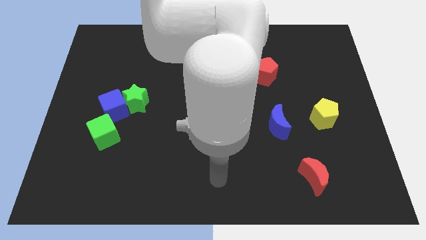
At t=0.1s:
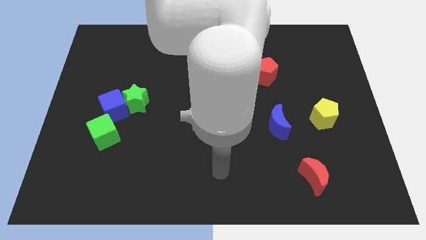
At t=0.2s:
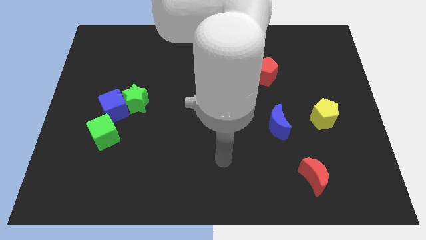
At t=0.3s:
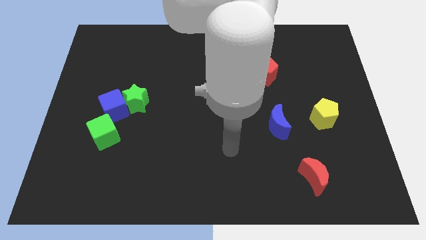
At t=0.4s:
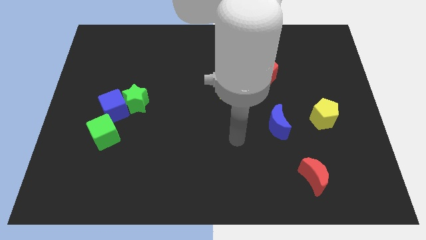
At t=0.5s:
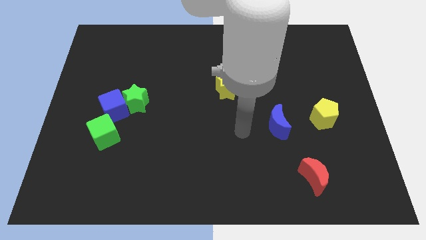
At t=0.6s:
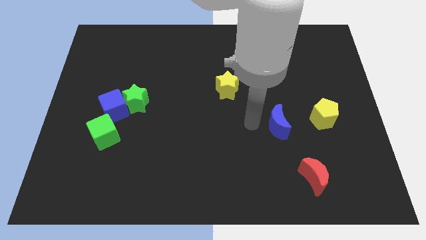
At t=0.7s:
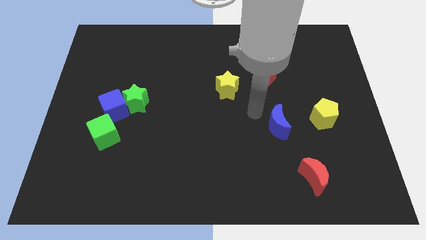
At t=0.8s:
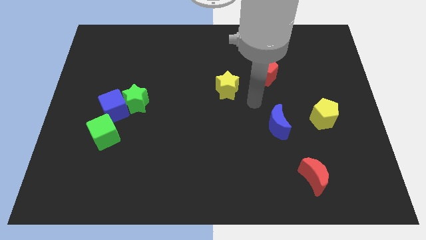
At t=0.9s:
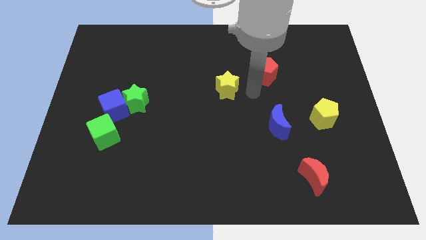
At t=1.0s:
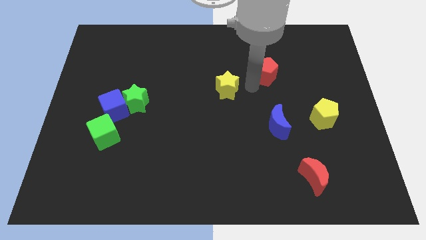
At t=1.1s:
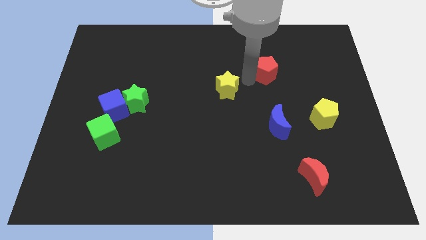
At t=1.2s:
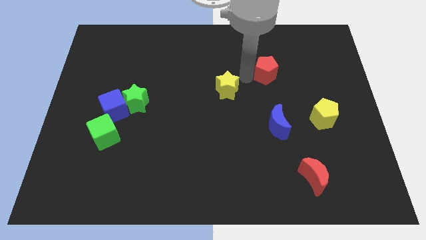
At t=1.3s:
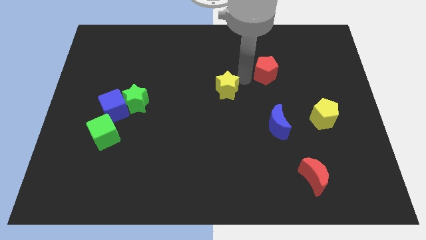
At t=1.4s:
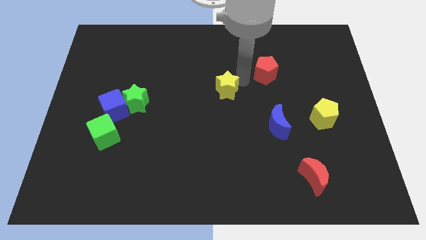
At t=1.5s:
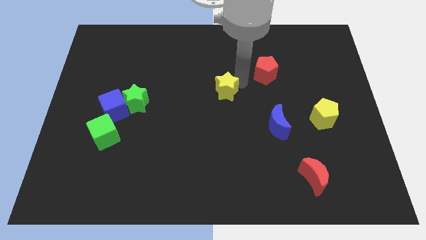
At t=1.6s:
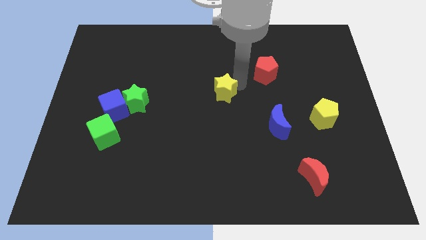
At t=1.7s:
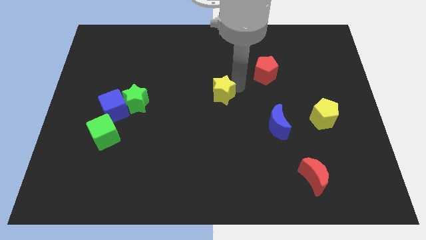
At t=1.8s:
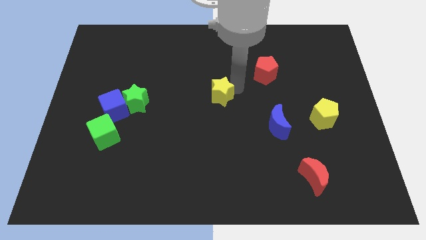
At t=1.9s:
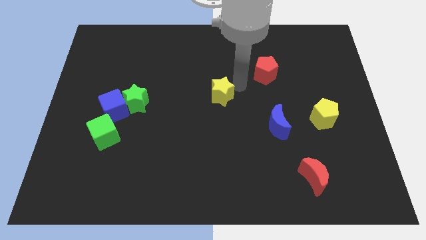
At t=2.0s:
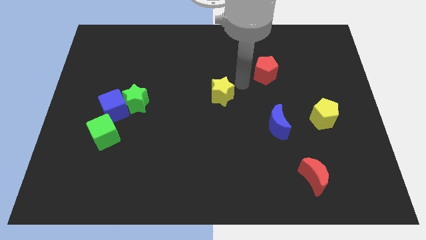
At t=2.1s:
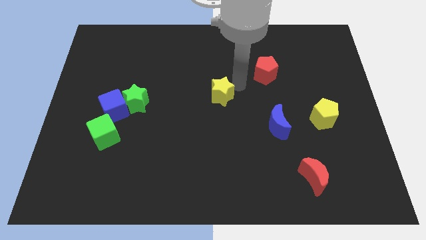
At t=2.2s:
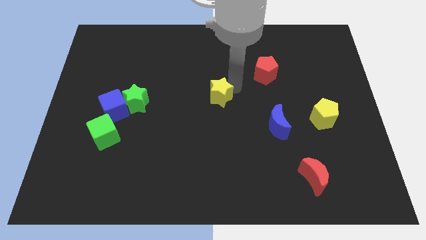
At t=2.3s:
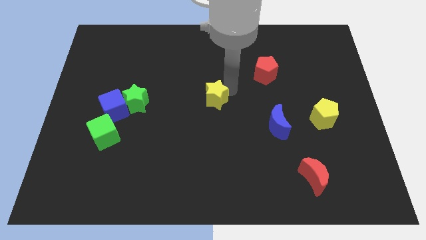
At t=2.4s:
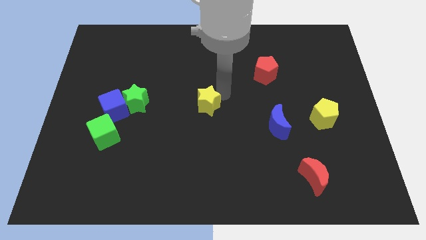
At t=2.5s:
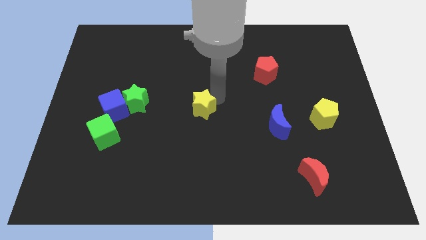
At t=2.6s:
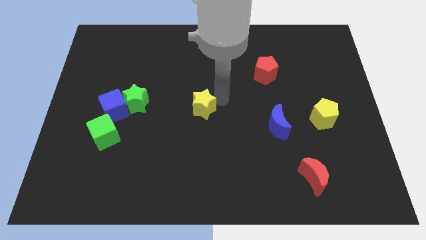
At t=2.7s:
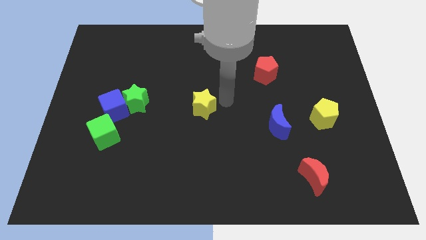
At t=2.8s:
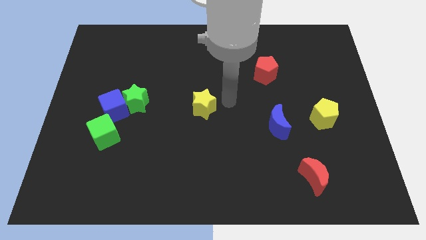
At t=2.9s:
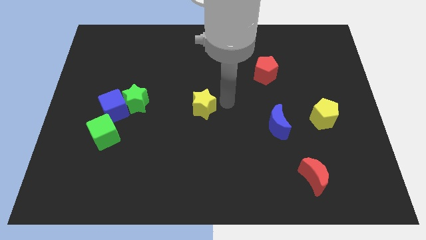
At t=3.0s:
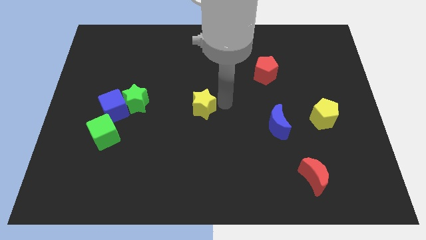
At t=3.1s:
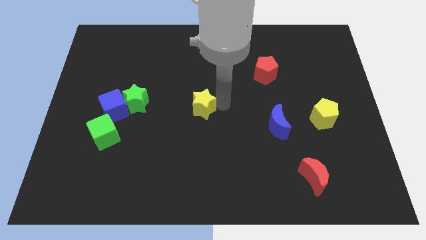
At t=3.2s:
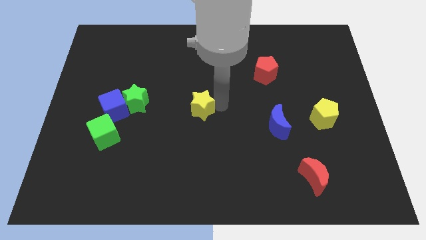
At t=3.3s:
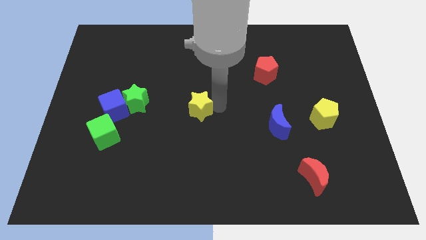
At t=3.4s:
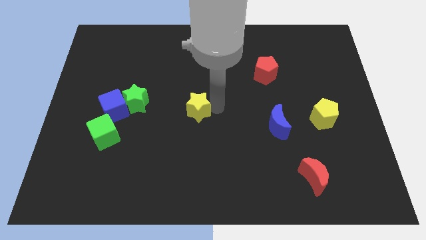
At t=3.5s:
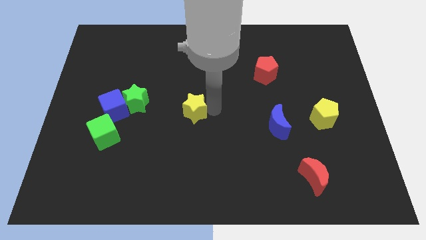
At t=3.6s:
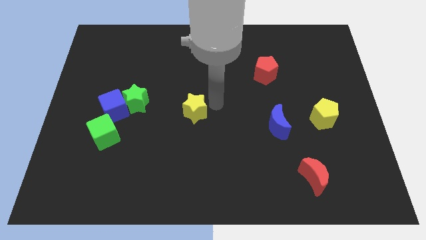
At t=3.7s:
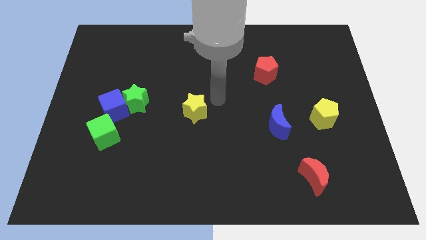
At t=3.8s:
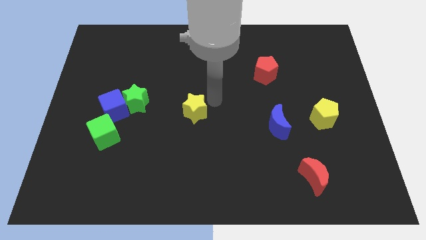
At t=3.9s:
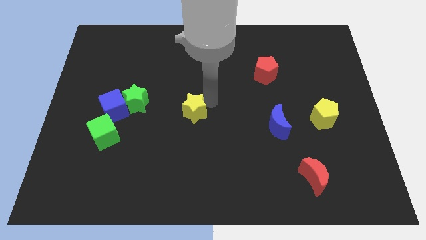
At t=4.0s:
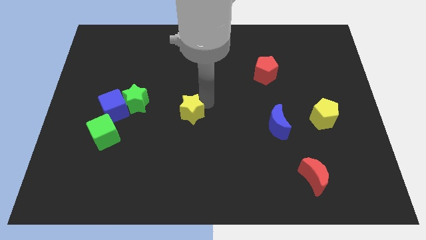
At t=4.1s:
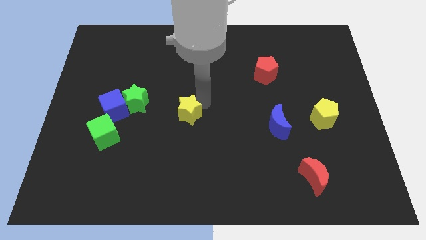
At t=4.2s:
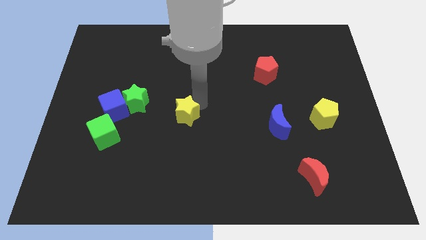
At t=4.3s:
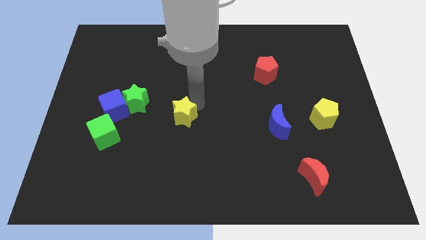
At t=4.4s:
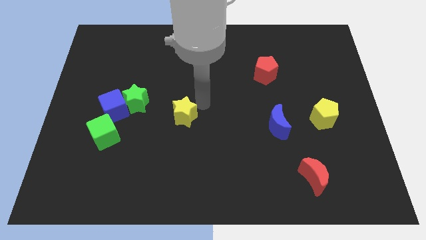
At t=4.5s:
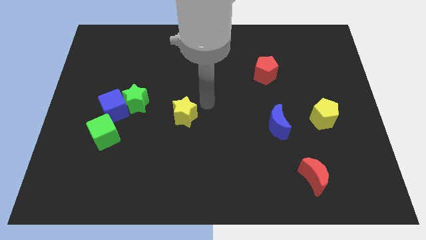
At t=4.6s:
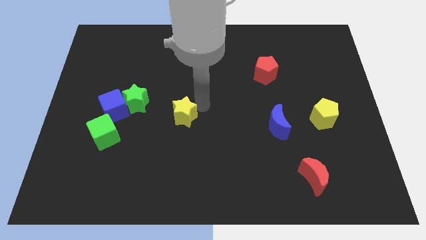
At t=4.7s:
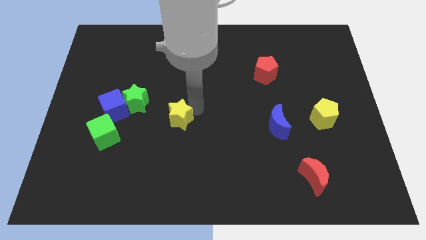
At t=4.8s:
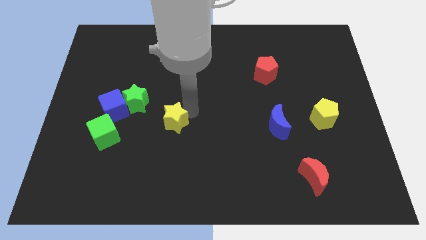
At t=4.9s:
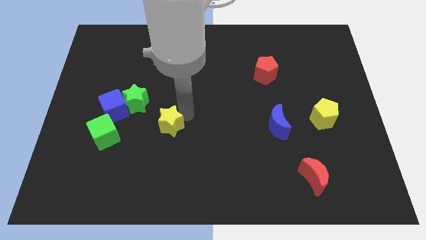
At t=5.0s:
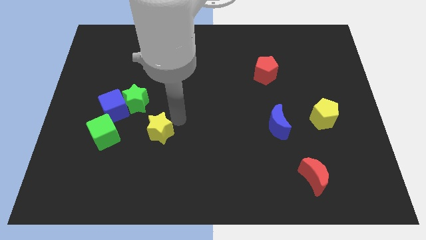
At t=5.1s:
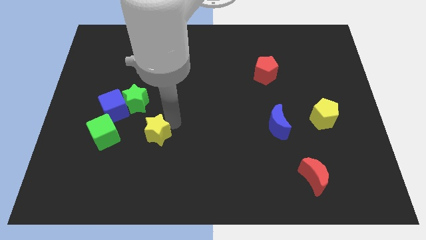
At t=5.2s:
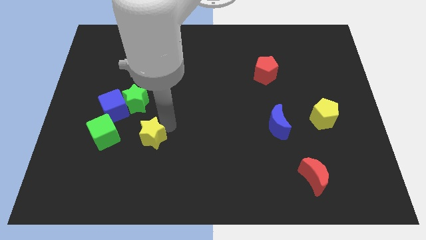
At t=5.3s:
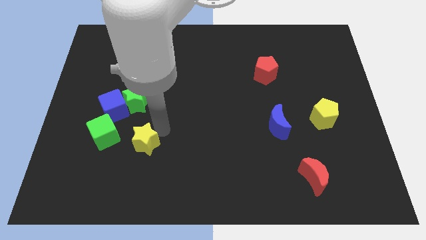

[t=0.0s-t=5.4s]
push the yellow star diagonally down and to the right of the green cube

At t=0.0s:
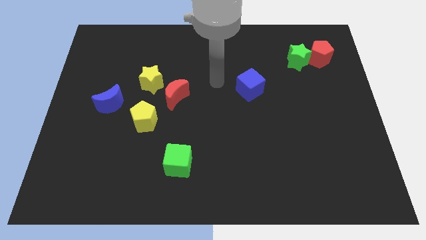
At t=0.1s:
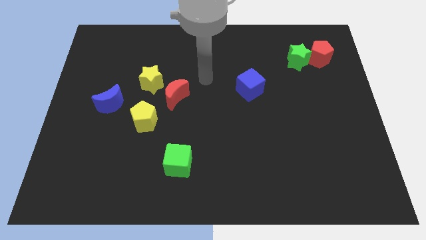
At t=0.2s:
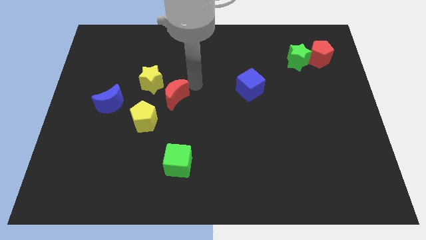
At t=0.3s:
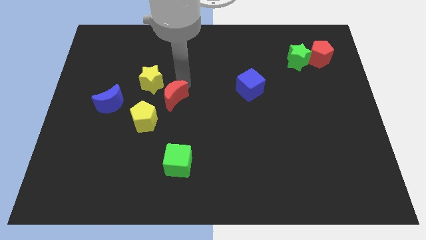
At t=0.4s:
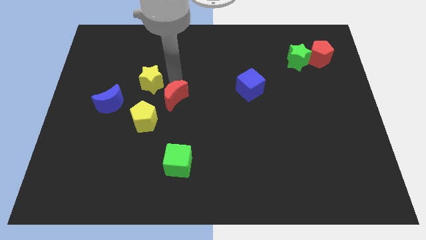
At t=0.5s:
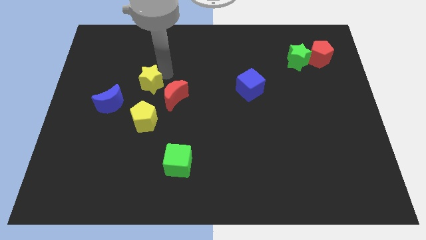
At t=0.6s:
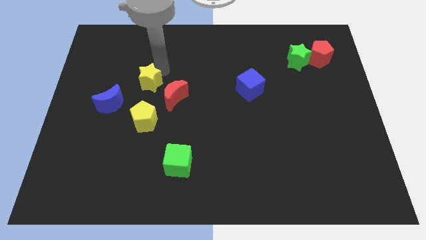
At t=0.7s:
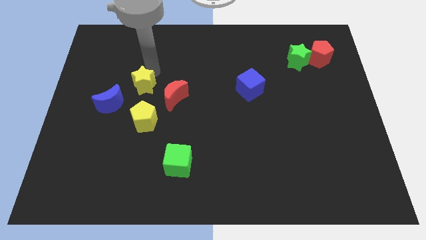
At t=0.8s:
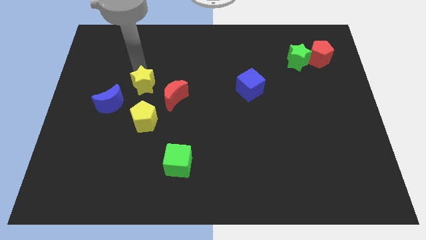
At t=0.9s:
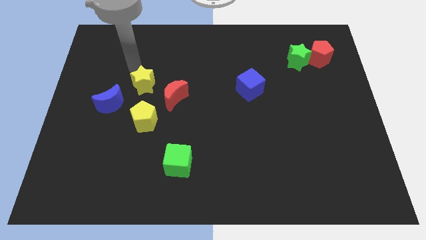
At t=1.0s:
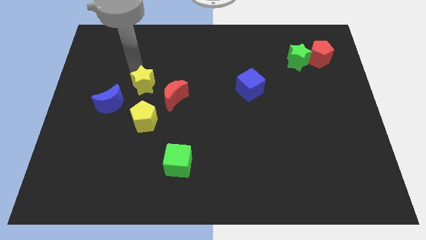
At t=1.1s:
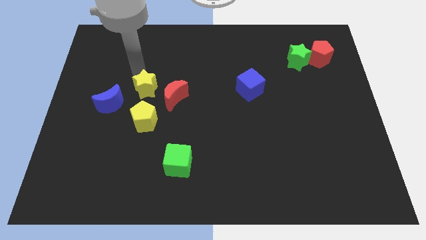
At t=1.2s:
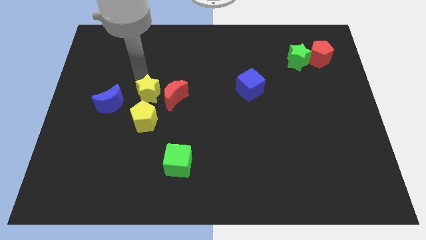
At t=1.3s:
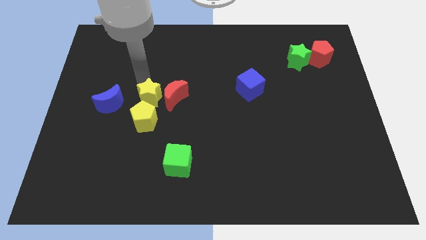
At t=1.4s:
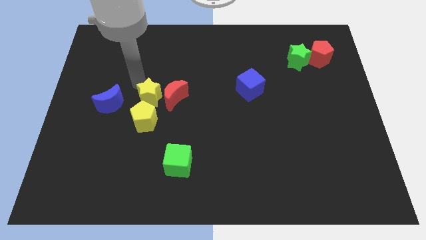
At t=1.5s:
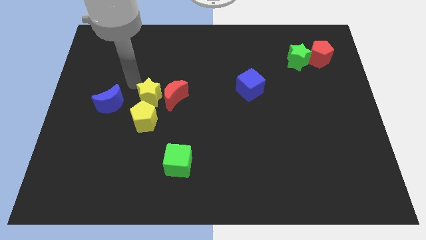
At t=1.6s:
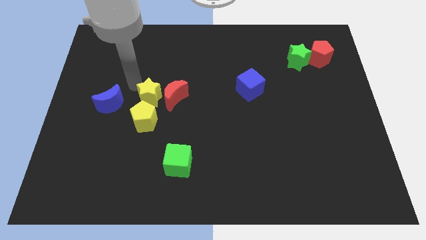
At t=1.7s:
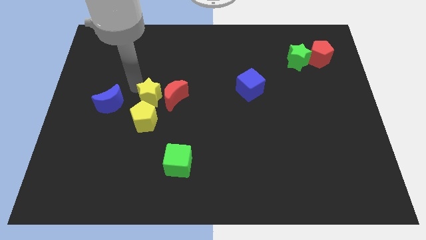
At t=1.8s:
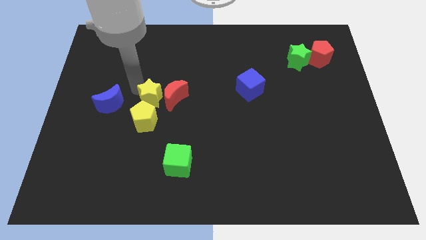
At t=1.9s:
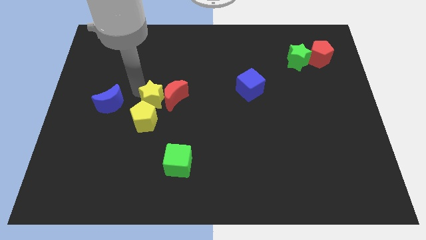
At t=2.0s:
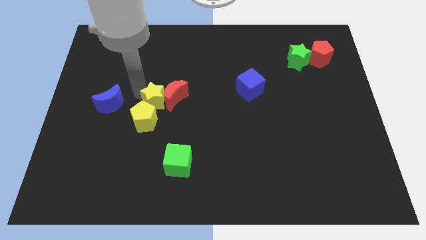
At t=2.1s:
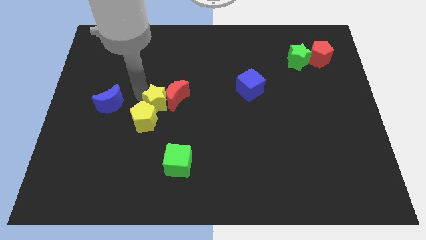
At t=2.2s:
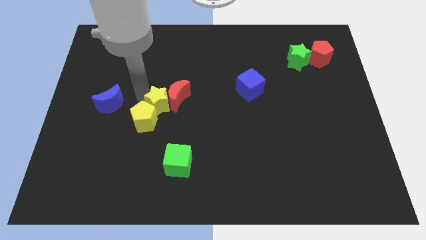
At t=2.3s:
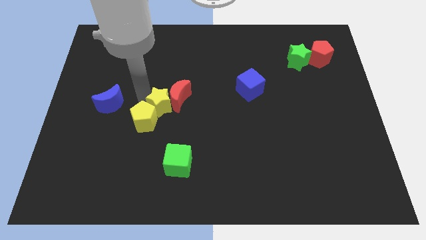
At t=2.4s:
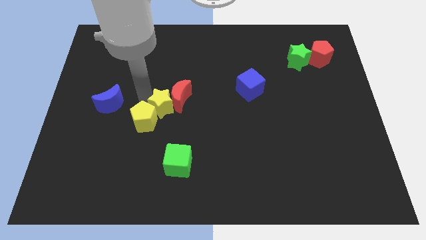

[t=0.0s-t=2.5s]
put the yellow star below the red moon
